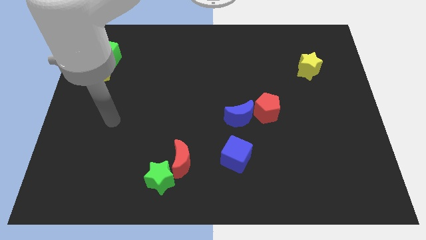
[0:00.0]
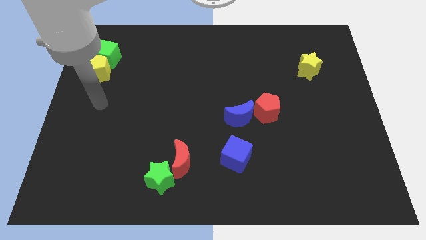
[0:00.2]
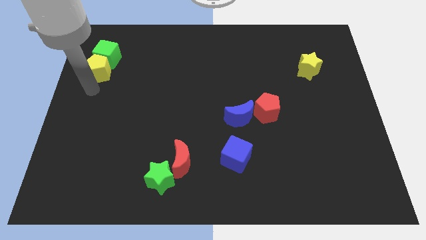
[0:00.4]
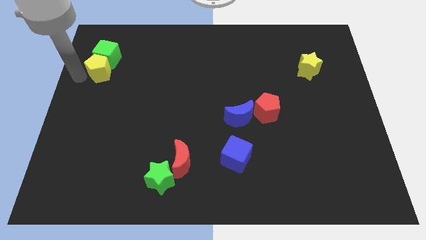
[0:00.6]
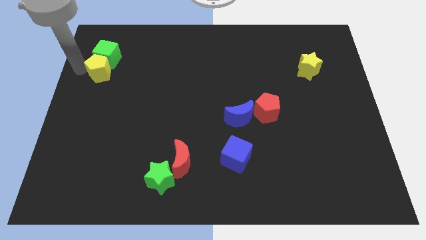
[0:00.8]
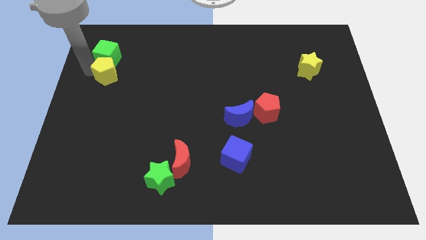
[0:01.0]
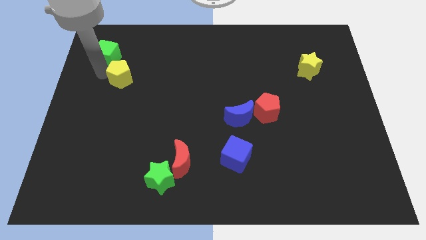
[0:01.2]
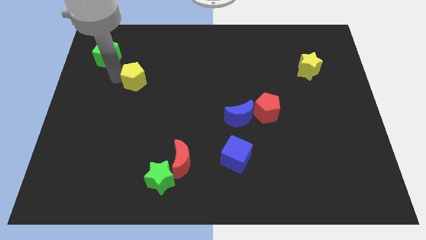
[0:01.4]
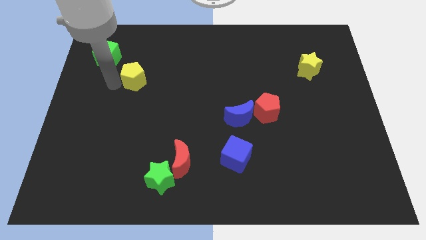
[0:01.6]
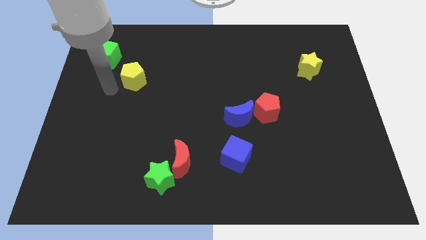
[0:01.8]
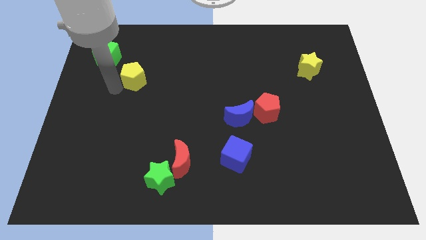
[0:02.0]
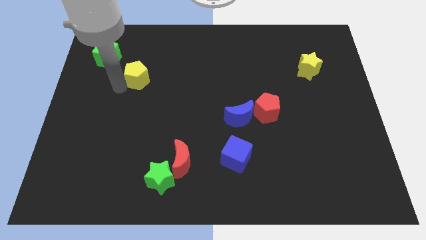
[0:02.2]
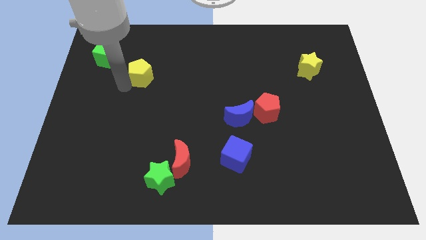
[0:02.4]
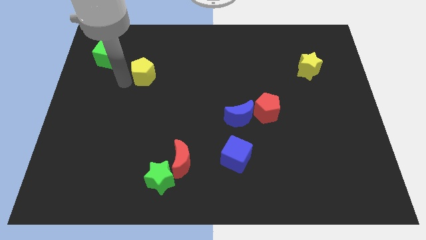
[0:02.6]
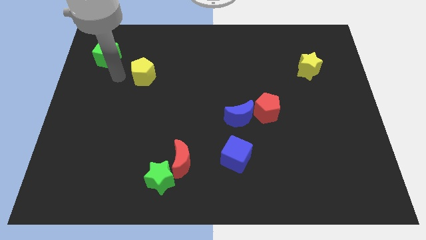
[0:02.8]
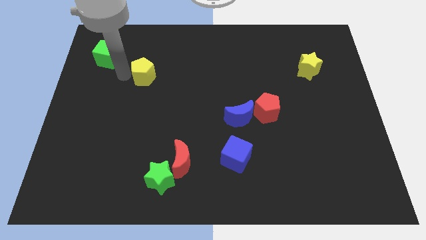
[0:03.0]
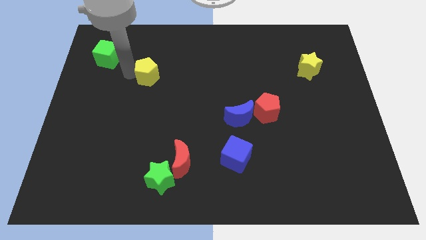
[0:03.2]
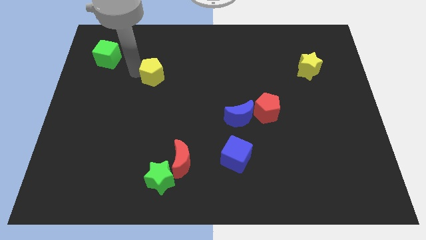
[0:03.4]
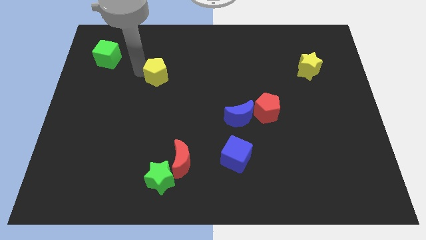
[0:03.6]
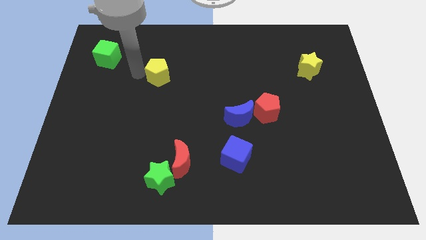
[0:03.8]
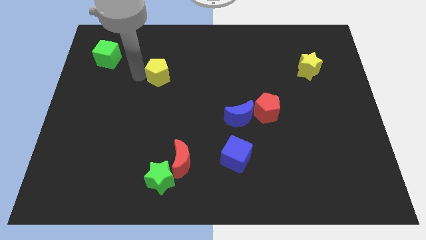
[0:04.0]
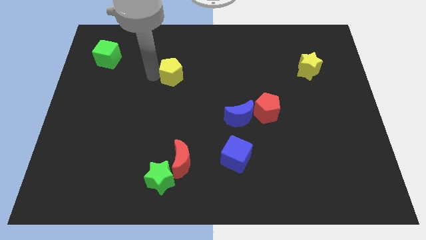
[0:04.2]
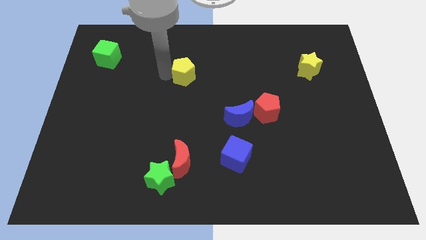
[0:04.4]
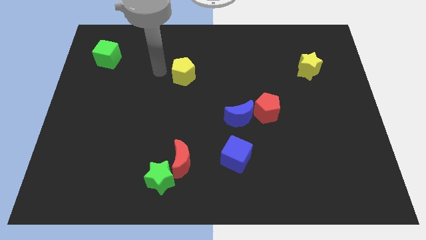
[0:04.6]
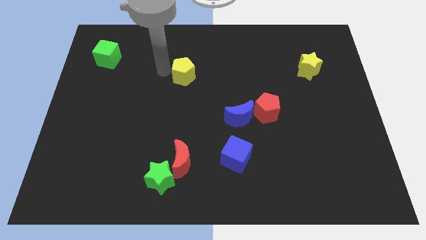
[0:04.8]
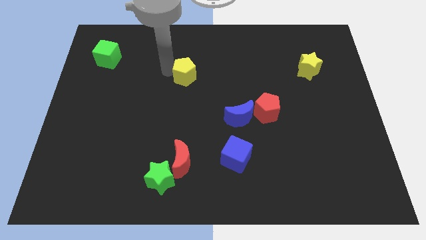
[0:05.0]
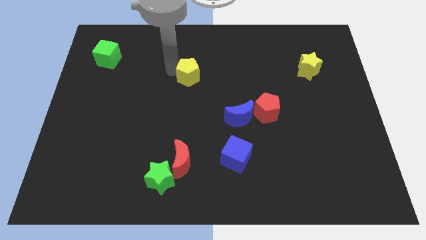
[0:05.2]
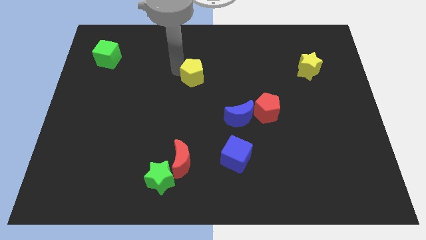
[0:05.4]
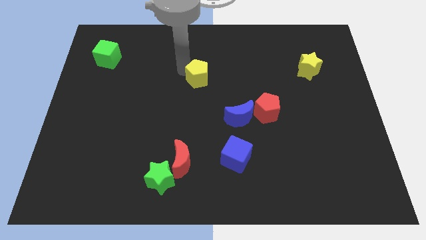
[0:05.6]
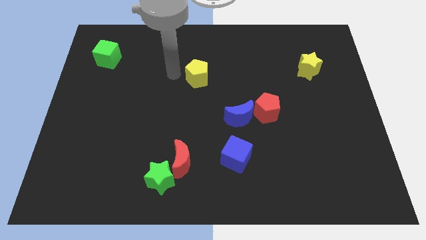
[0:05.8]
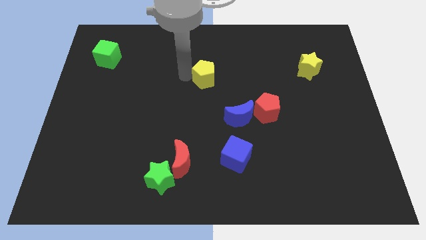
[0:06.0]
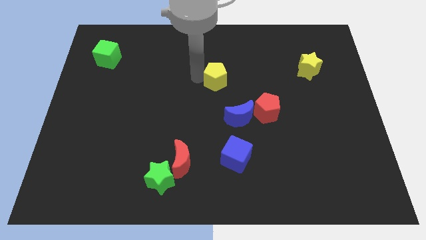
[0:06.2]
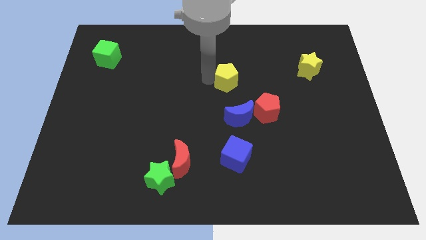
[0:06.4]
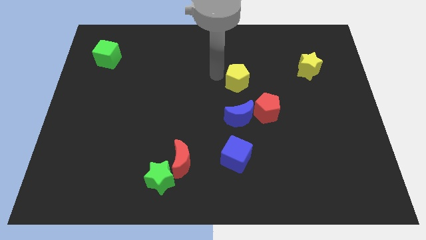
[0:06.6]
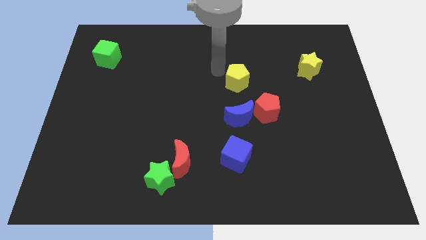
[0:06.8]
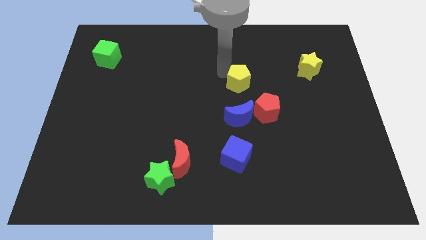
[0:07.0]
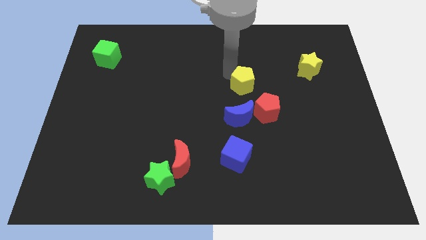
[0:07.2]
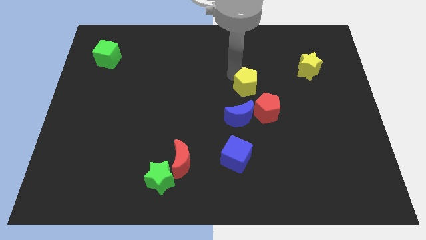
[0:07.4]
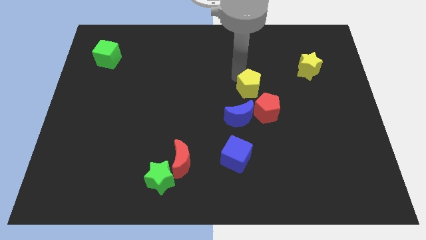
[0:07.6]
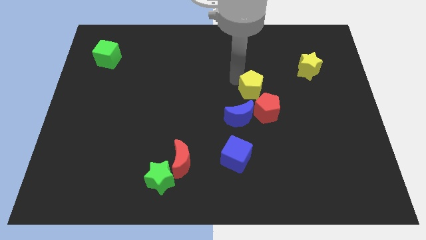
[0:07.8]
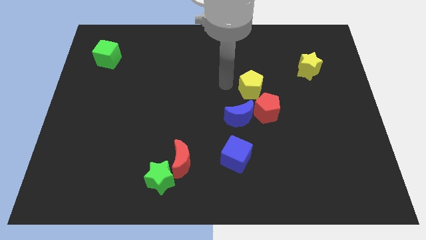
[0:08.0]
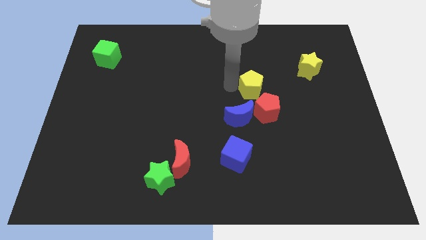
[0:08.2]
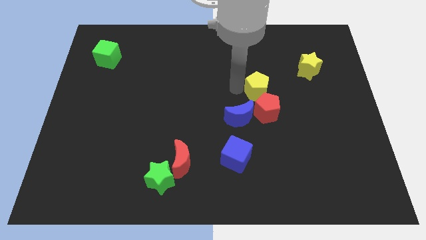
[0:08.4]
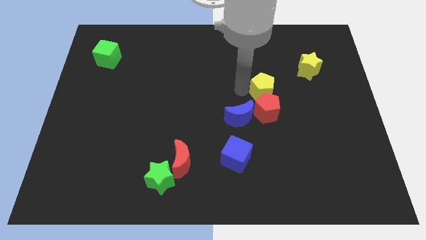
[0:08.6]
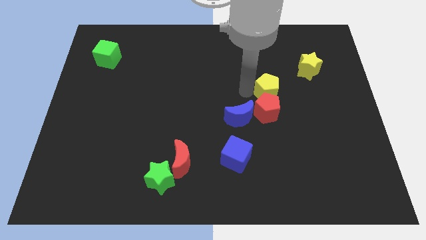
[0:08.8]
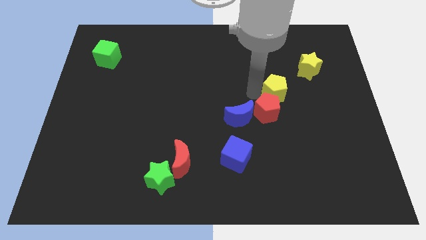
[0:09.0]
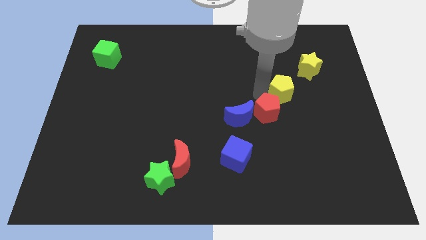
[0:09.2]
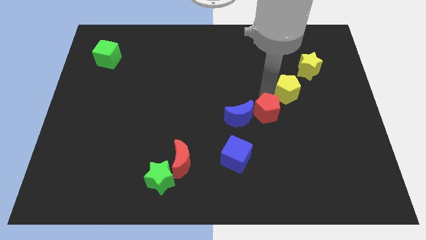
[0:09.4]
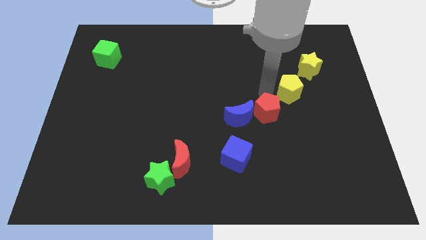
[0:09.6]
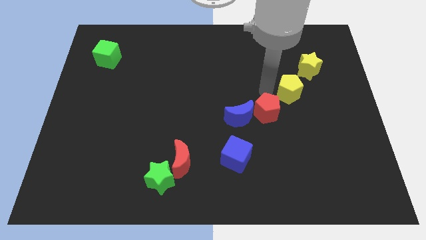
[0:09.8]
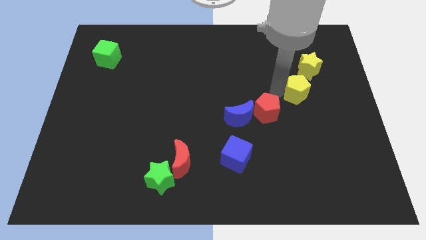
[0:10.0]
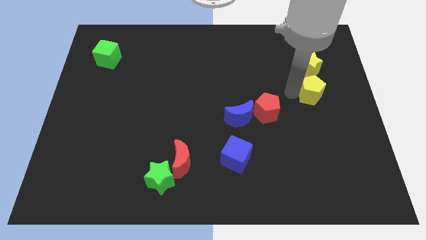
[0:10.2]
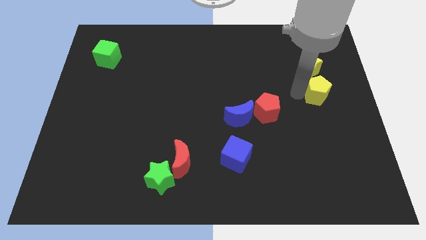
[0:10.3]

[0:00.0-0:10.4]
push the yellow pentagon to the right side of the board

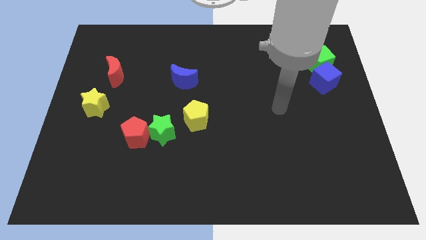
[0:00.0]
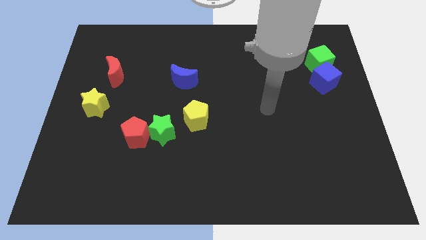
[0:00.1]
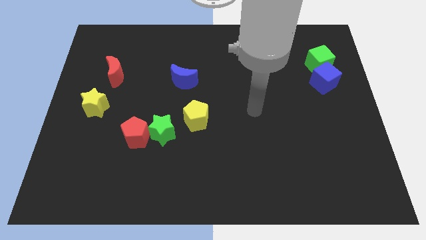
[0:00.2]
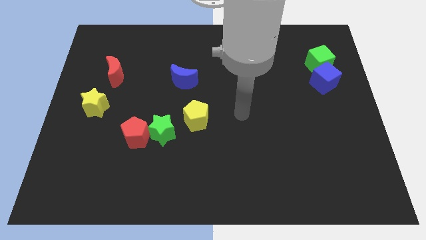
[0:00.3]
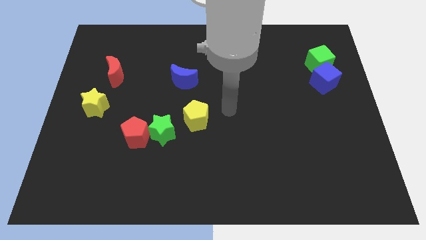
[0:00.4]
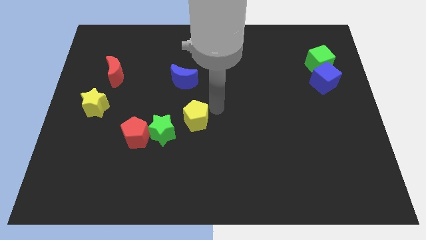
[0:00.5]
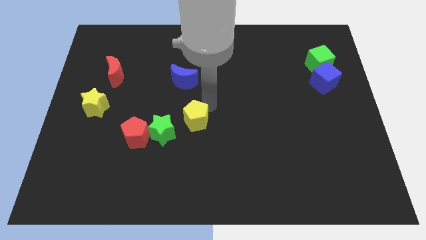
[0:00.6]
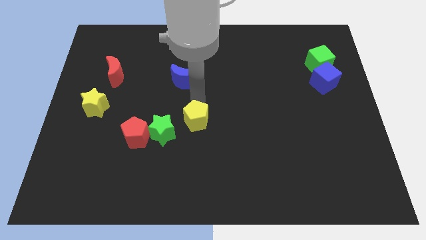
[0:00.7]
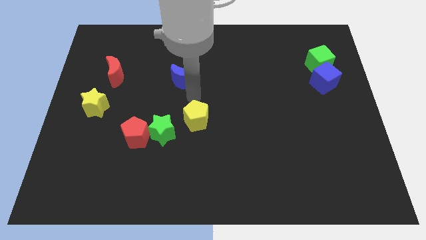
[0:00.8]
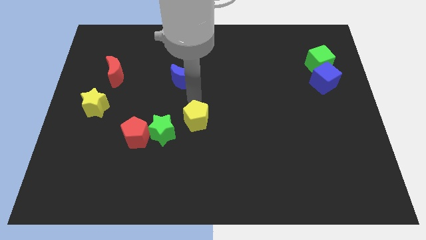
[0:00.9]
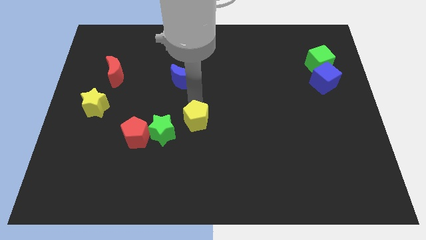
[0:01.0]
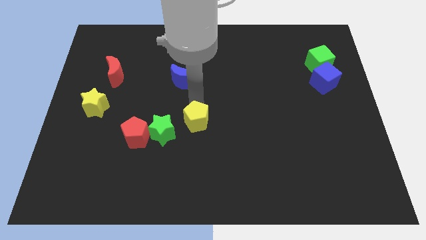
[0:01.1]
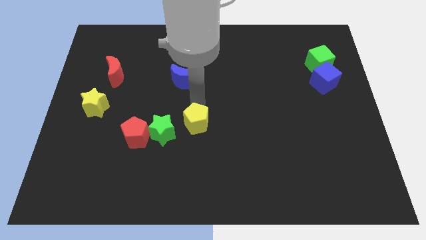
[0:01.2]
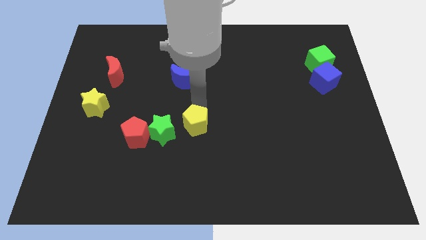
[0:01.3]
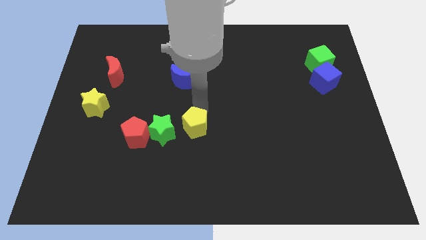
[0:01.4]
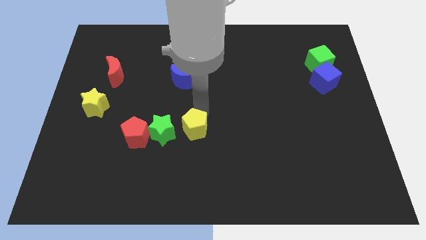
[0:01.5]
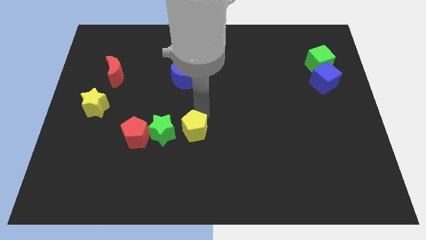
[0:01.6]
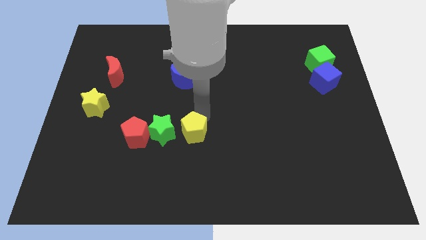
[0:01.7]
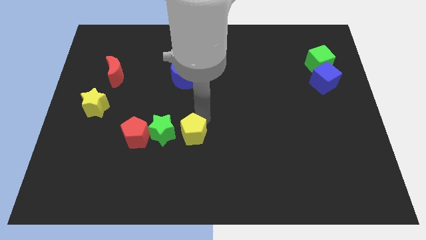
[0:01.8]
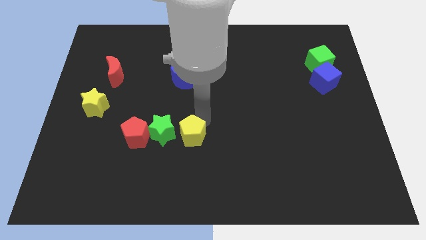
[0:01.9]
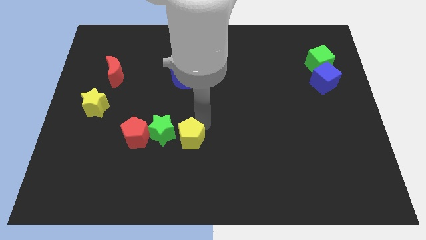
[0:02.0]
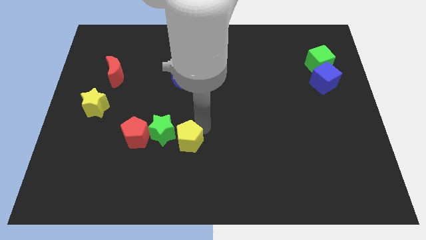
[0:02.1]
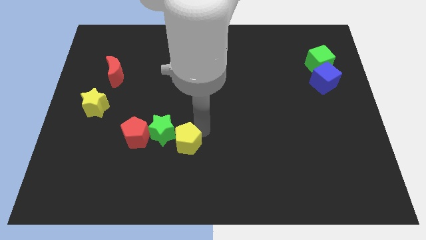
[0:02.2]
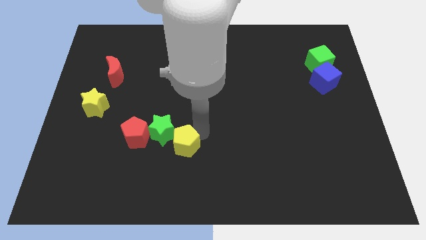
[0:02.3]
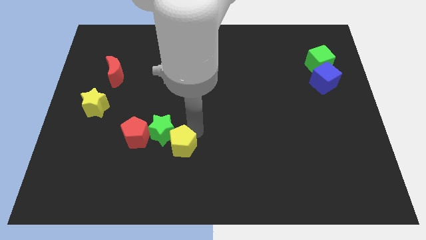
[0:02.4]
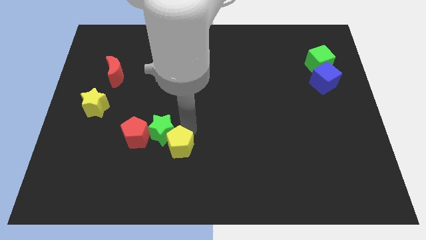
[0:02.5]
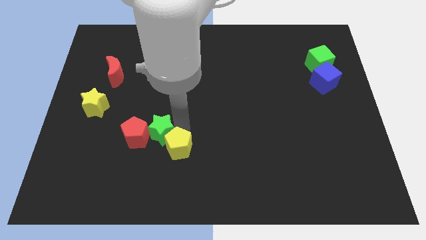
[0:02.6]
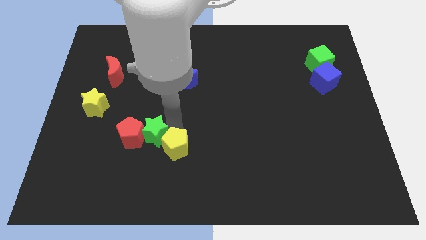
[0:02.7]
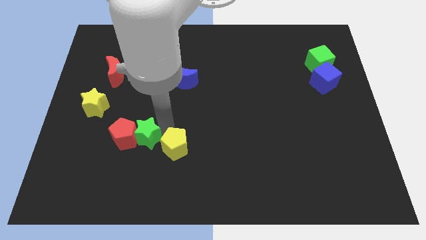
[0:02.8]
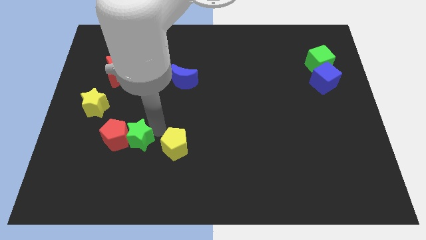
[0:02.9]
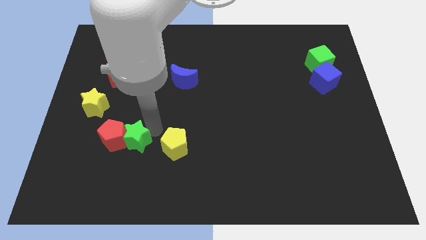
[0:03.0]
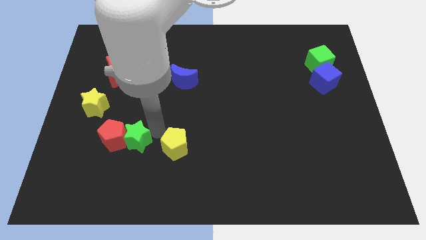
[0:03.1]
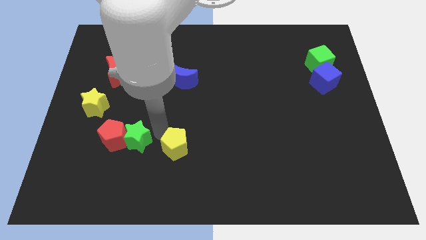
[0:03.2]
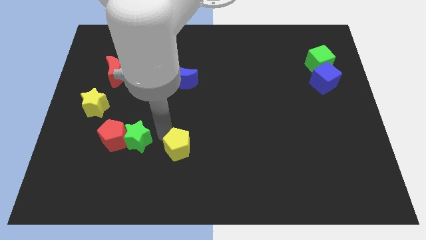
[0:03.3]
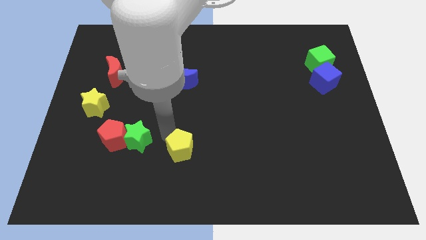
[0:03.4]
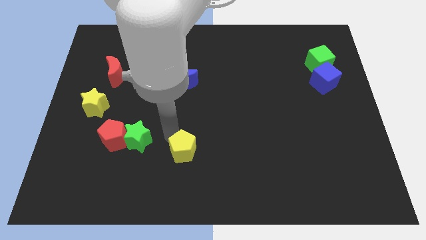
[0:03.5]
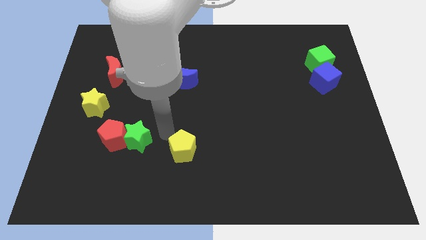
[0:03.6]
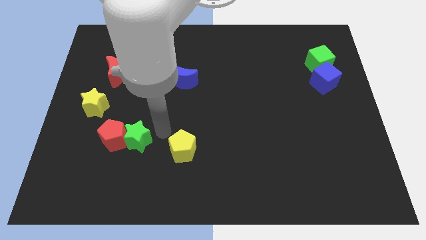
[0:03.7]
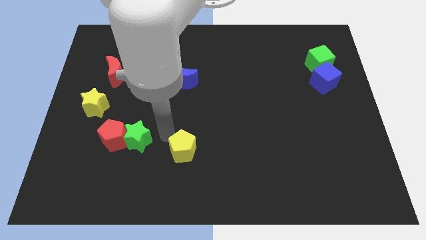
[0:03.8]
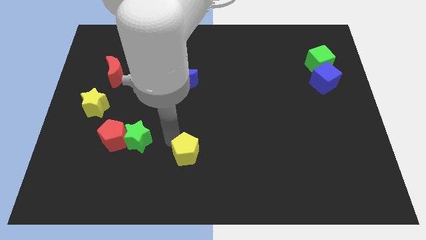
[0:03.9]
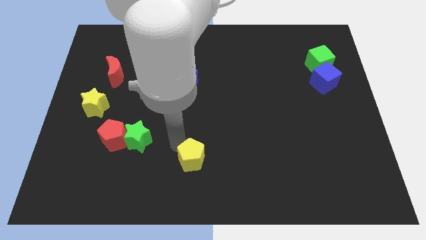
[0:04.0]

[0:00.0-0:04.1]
put the yellow pentagon to the bottom
